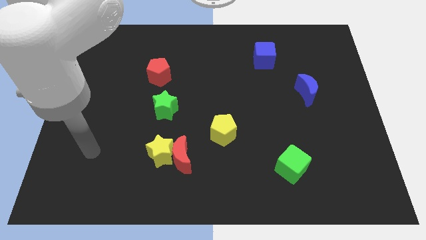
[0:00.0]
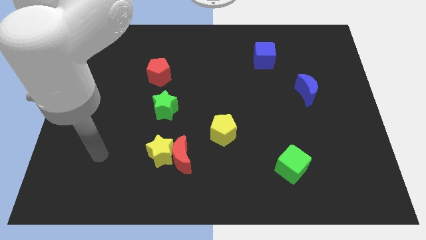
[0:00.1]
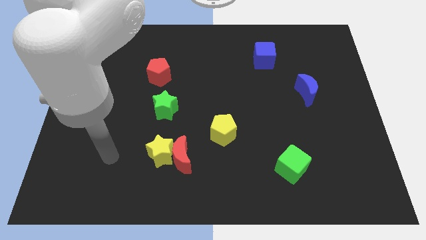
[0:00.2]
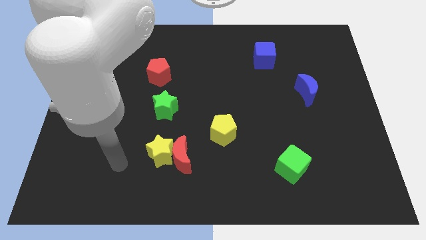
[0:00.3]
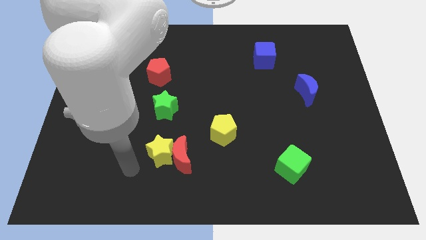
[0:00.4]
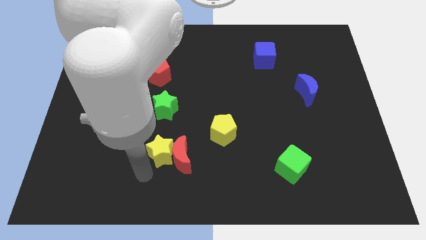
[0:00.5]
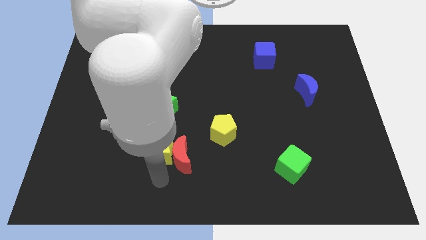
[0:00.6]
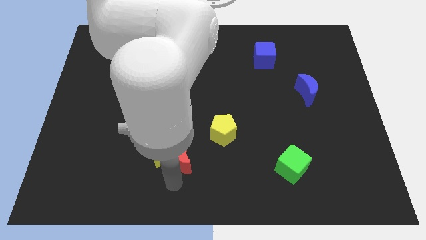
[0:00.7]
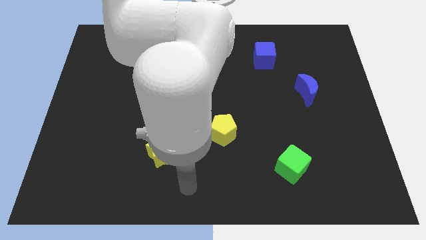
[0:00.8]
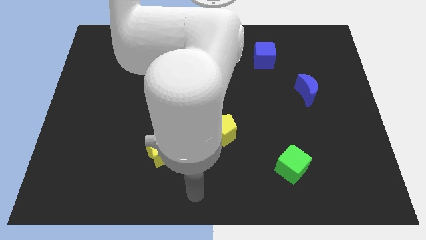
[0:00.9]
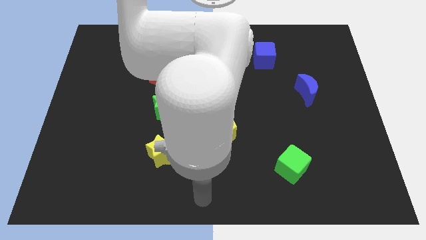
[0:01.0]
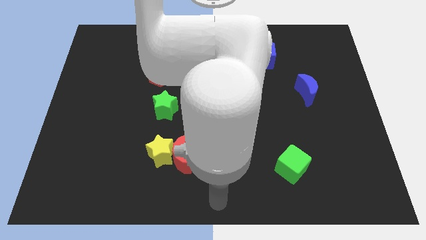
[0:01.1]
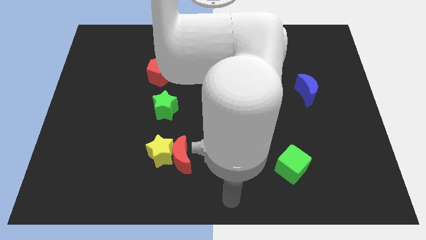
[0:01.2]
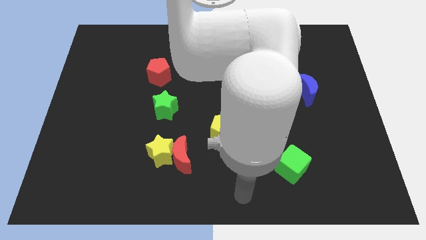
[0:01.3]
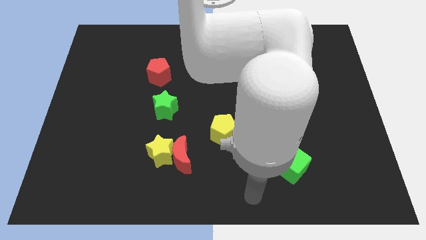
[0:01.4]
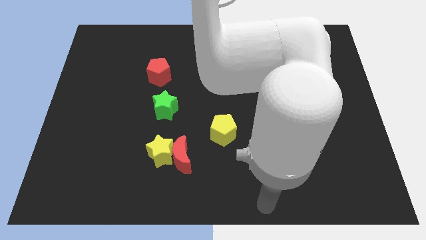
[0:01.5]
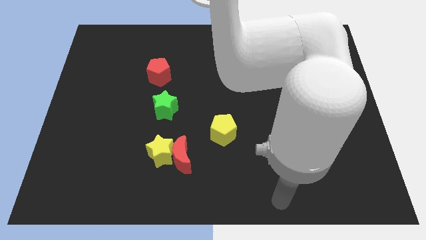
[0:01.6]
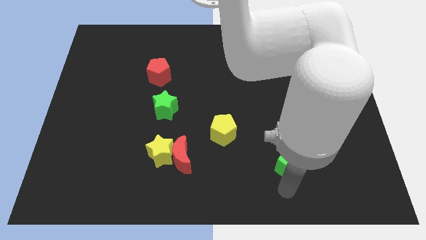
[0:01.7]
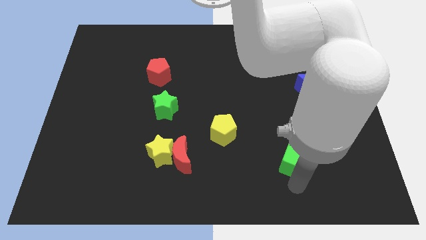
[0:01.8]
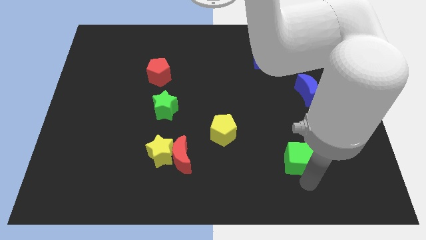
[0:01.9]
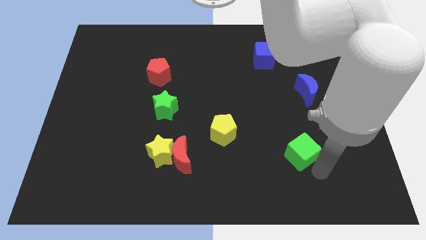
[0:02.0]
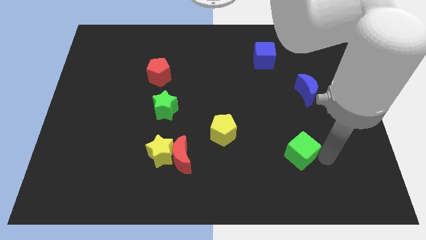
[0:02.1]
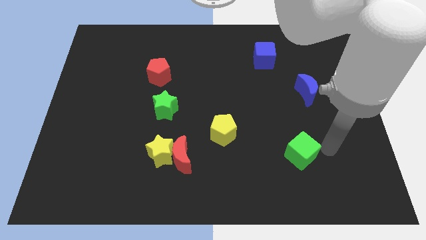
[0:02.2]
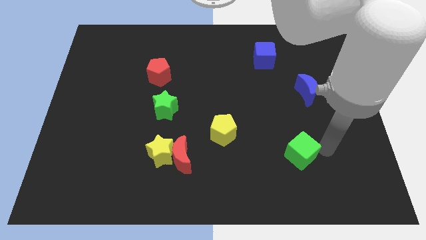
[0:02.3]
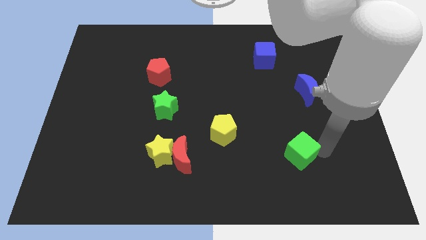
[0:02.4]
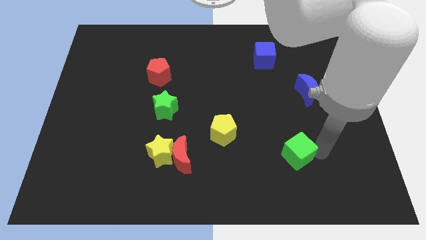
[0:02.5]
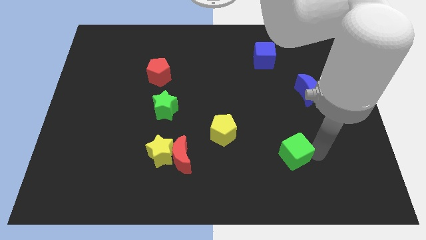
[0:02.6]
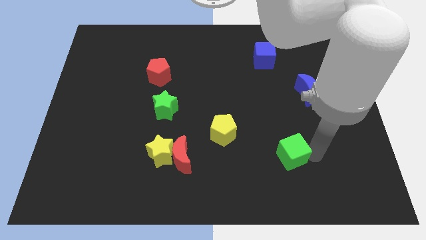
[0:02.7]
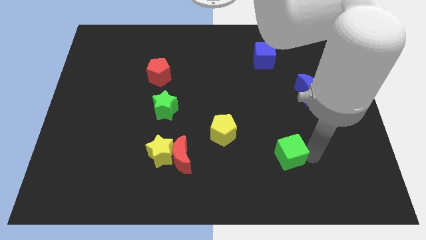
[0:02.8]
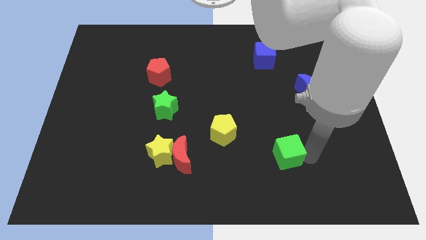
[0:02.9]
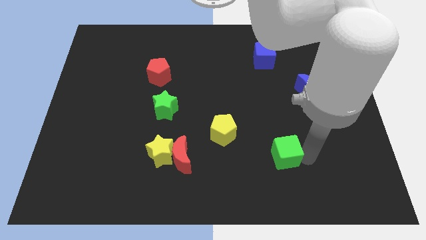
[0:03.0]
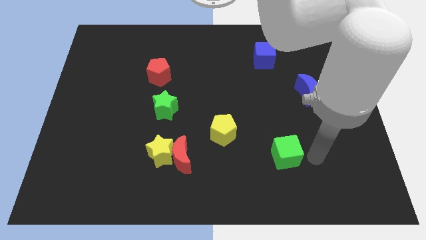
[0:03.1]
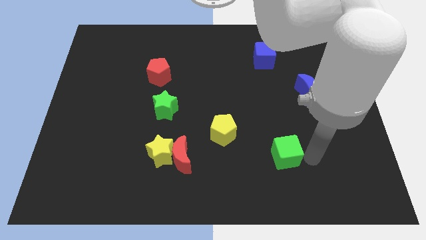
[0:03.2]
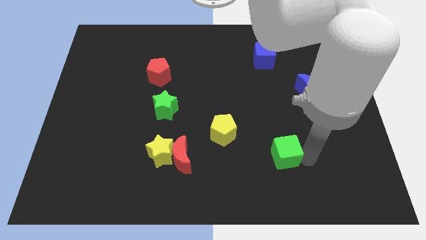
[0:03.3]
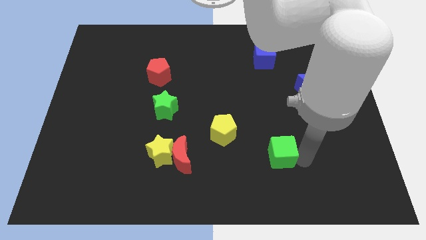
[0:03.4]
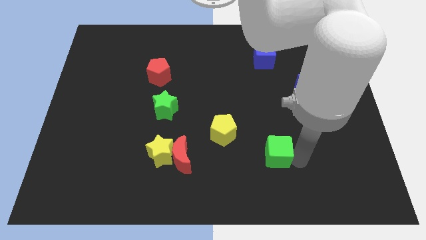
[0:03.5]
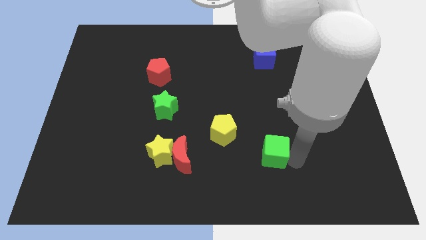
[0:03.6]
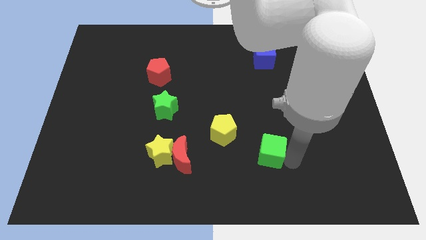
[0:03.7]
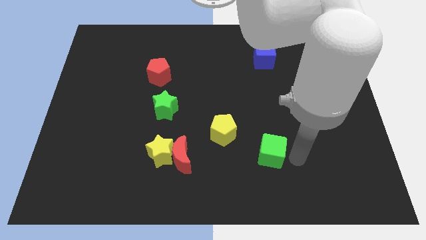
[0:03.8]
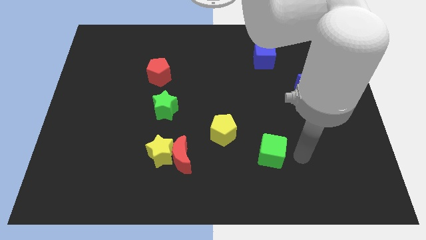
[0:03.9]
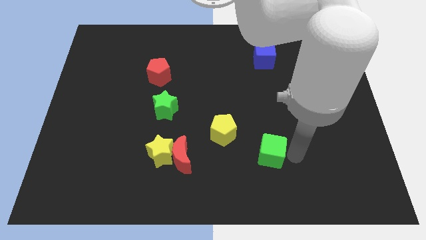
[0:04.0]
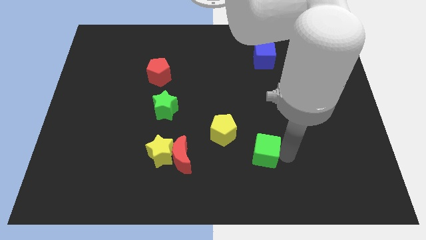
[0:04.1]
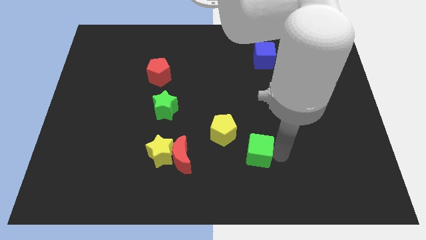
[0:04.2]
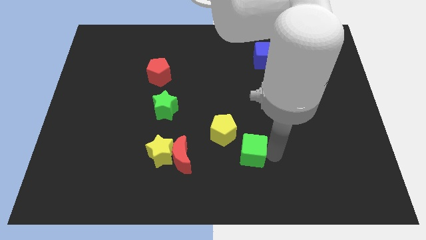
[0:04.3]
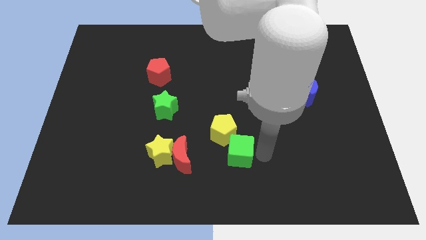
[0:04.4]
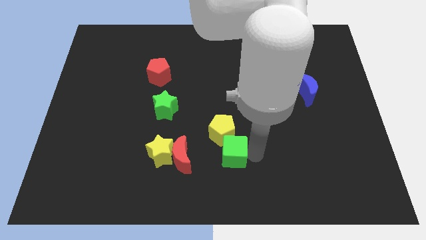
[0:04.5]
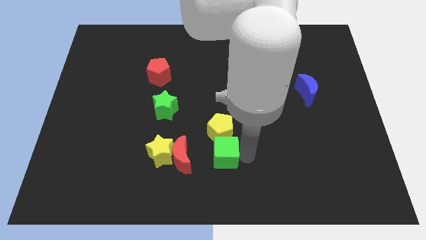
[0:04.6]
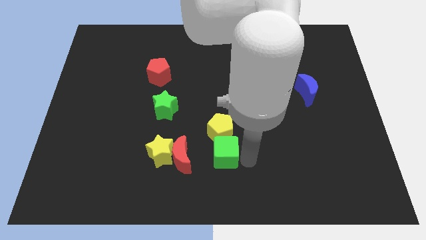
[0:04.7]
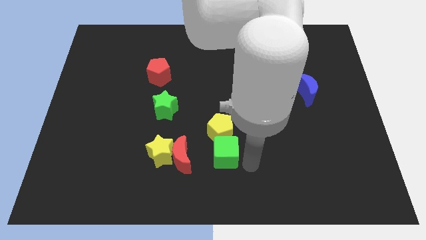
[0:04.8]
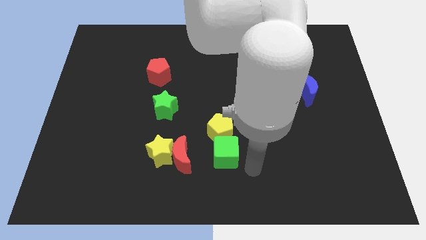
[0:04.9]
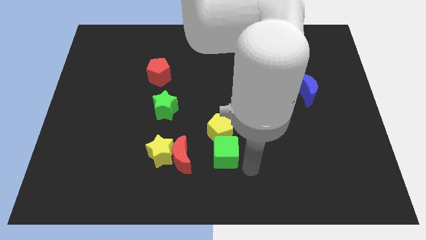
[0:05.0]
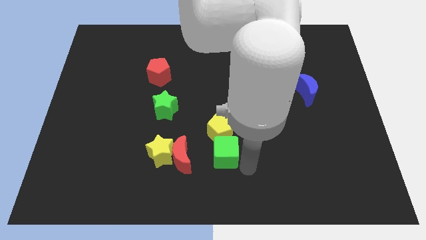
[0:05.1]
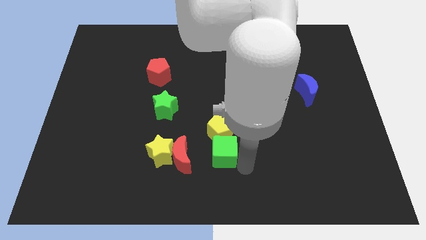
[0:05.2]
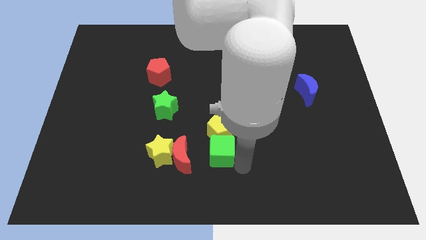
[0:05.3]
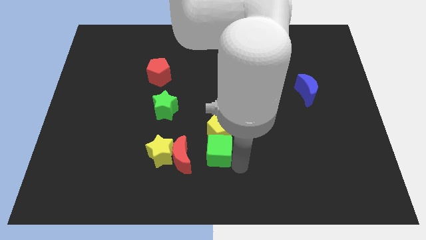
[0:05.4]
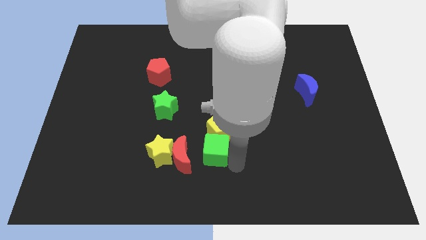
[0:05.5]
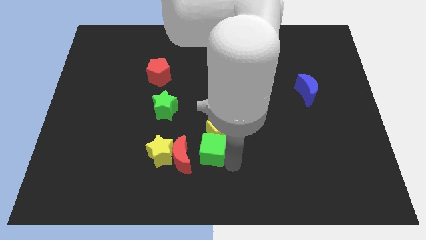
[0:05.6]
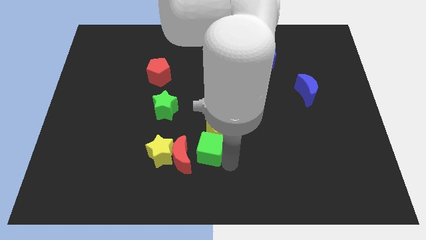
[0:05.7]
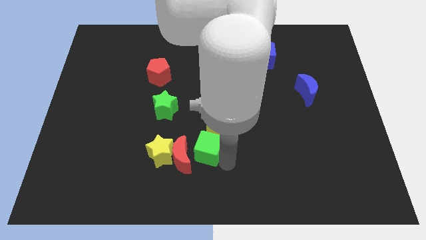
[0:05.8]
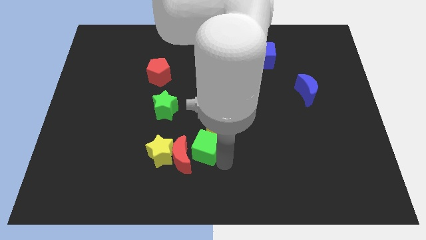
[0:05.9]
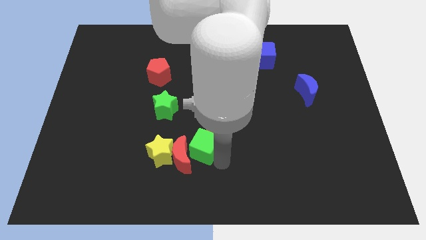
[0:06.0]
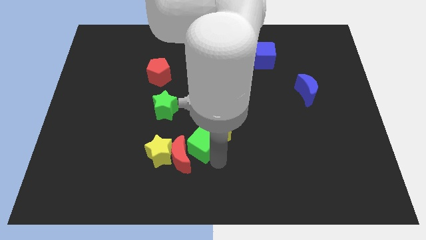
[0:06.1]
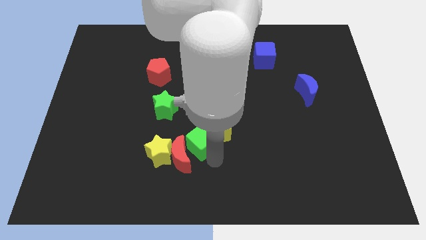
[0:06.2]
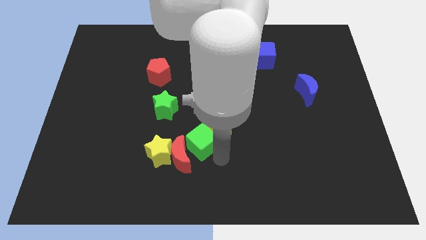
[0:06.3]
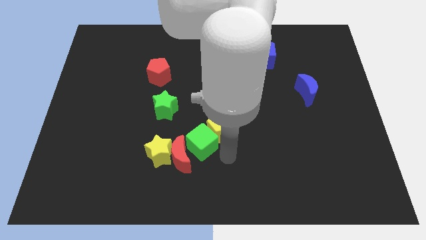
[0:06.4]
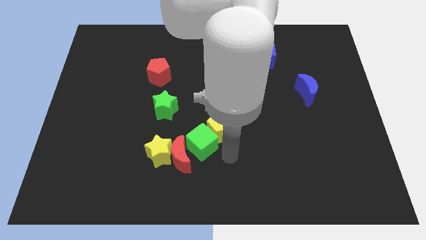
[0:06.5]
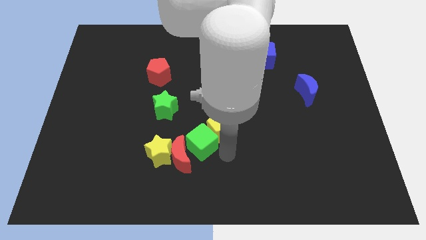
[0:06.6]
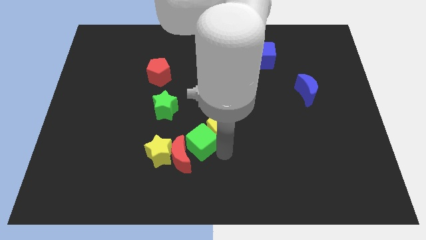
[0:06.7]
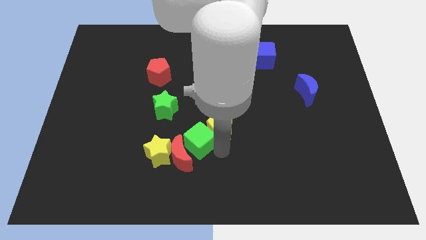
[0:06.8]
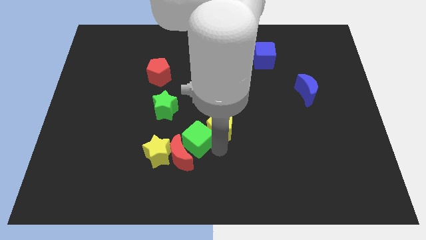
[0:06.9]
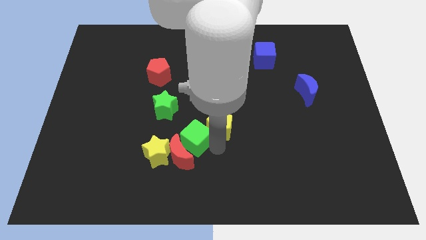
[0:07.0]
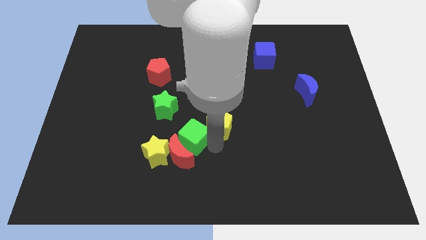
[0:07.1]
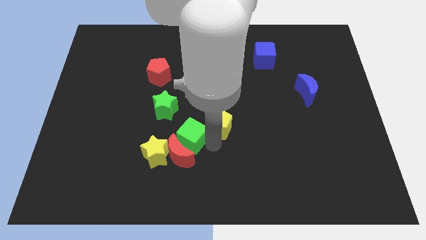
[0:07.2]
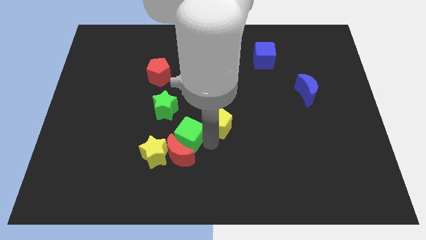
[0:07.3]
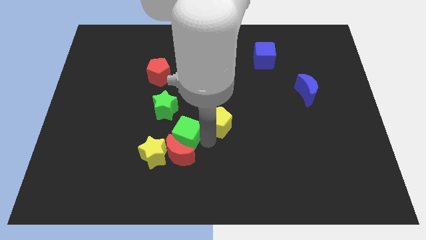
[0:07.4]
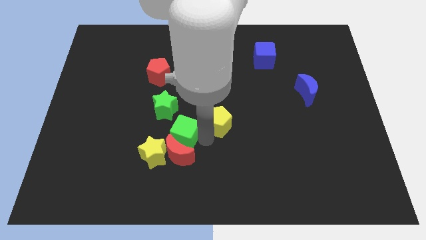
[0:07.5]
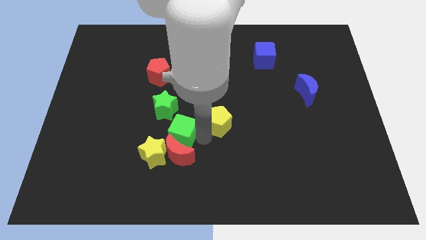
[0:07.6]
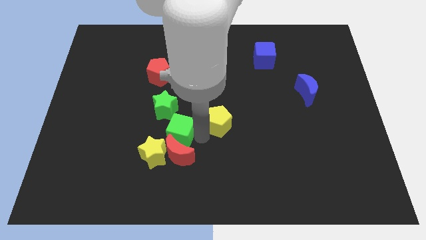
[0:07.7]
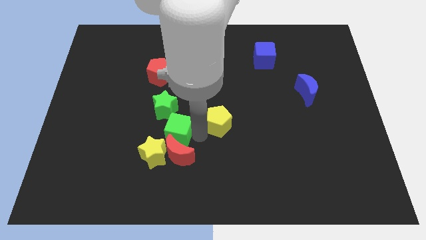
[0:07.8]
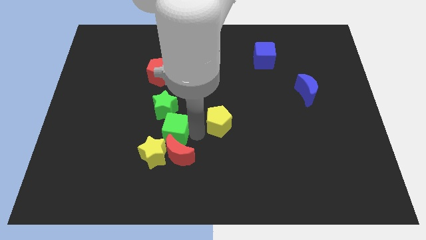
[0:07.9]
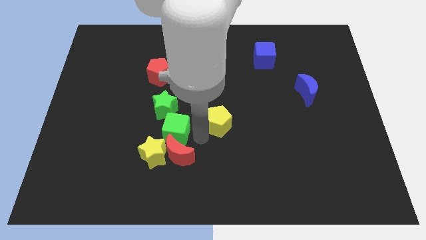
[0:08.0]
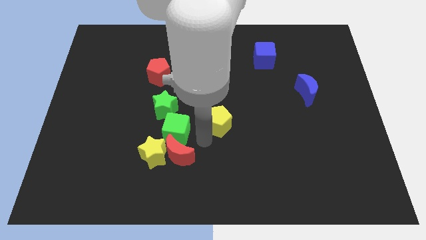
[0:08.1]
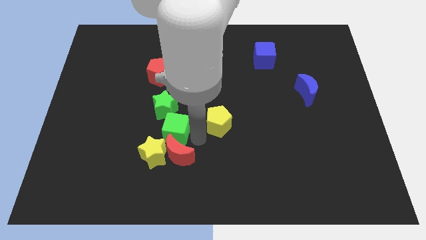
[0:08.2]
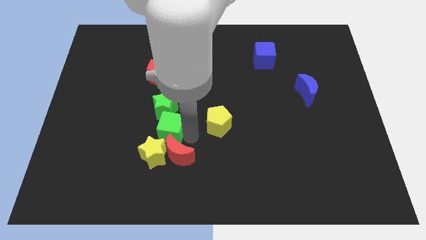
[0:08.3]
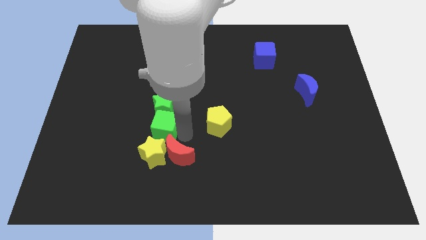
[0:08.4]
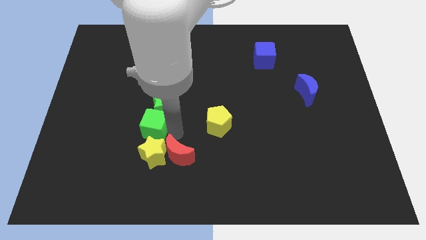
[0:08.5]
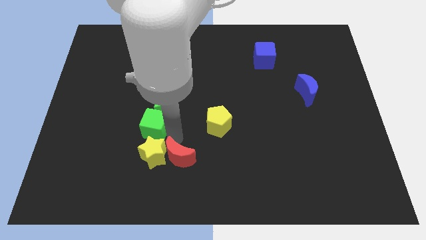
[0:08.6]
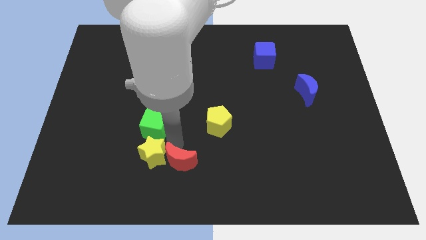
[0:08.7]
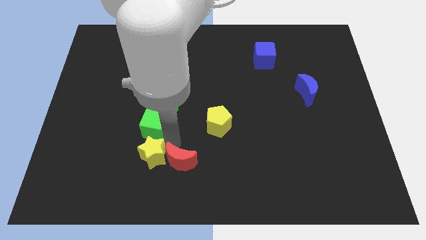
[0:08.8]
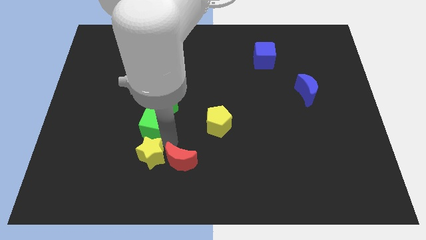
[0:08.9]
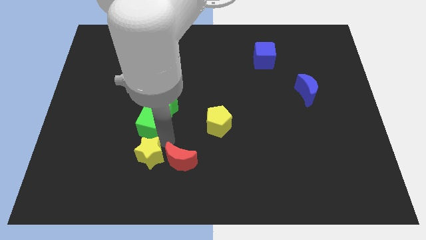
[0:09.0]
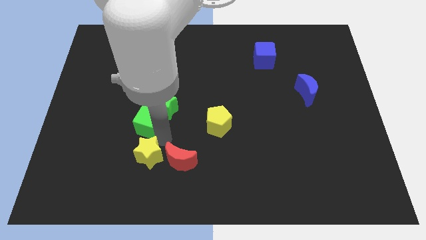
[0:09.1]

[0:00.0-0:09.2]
move the green cube left of the green star
